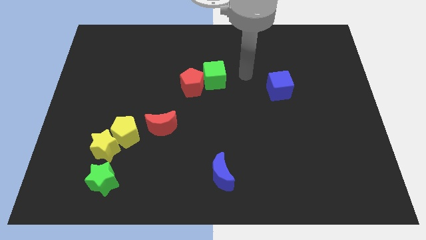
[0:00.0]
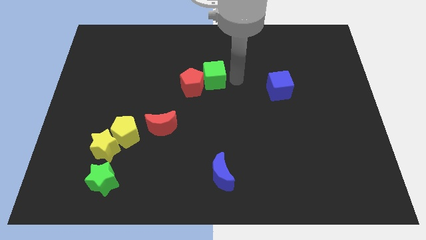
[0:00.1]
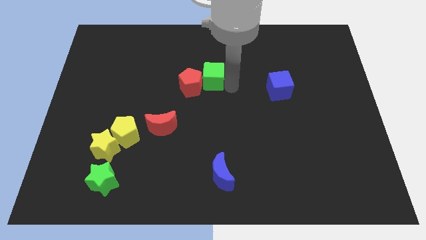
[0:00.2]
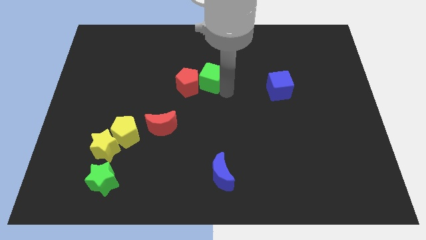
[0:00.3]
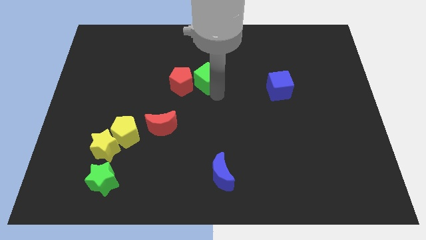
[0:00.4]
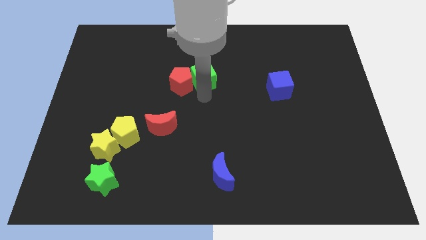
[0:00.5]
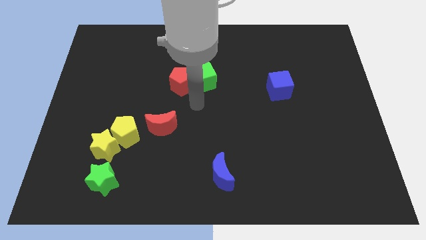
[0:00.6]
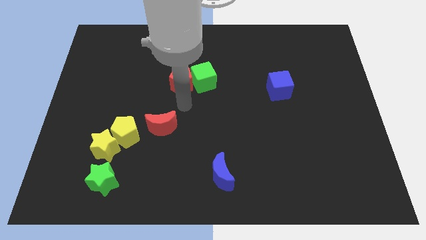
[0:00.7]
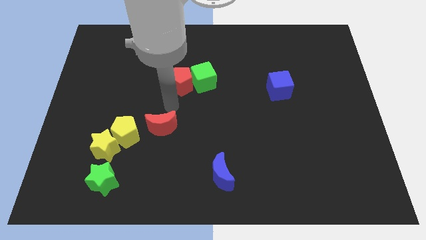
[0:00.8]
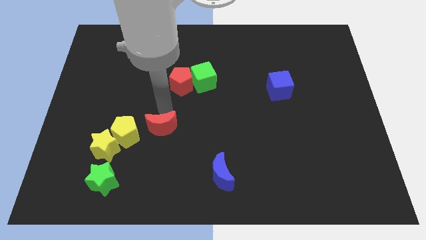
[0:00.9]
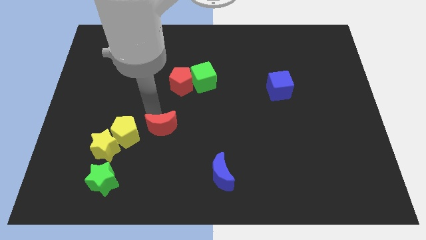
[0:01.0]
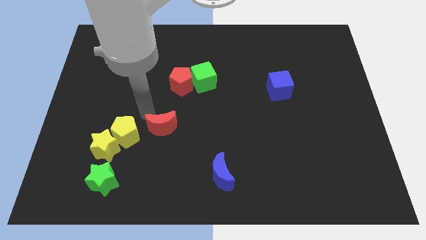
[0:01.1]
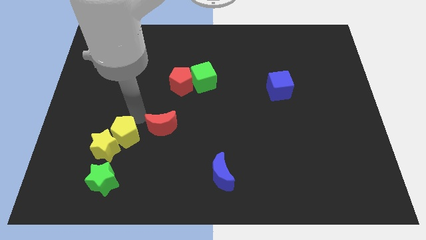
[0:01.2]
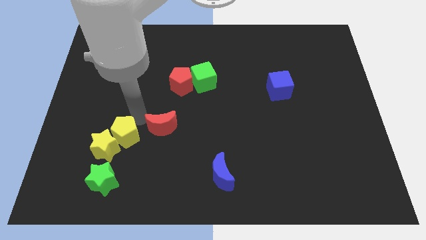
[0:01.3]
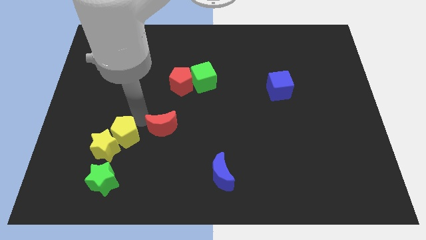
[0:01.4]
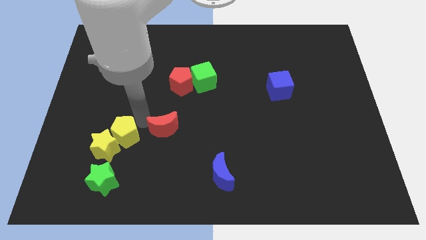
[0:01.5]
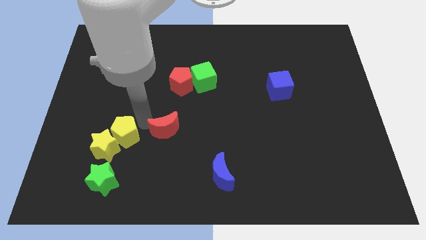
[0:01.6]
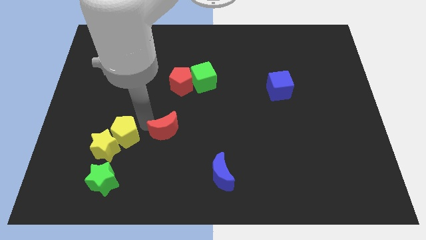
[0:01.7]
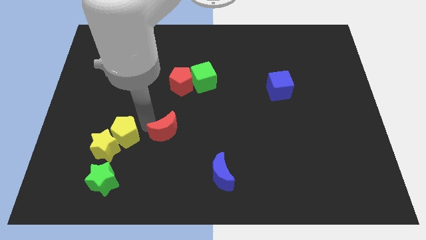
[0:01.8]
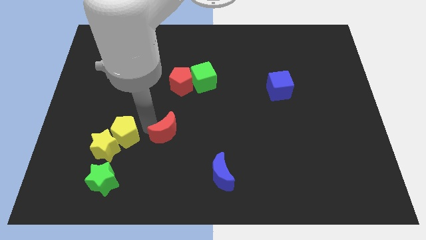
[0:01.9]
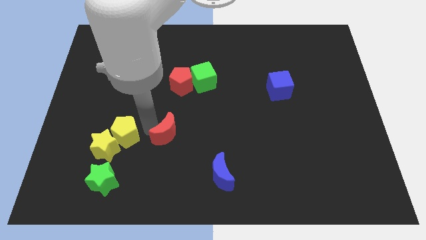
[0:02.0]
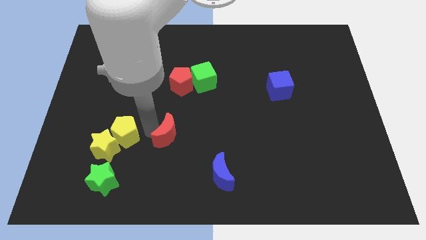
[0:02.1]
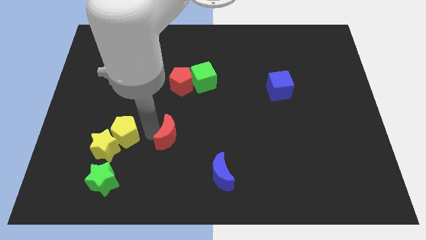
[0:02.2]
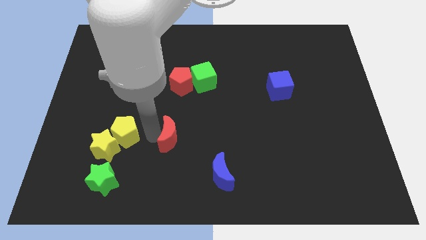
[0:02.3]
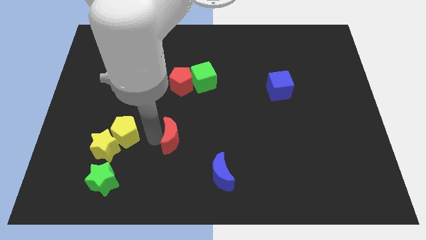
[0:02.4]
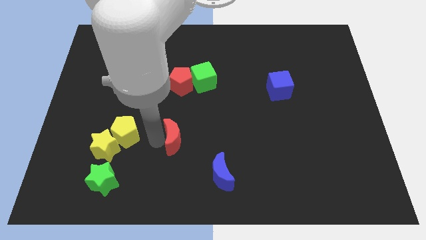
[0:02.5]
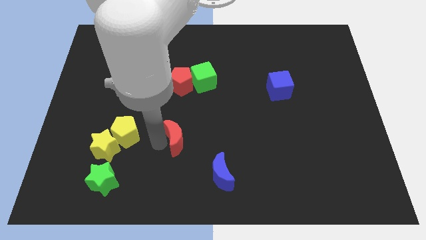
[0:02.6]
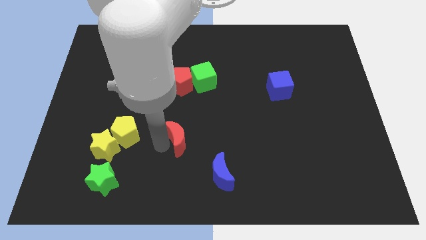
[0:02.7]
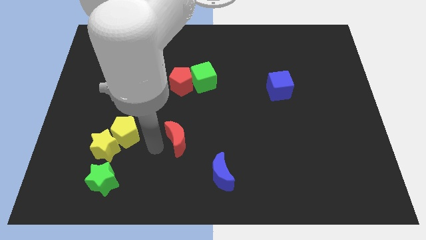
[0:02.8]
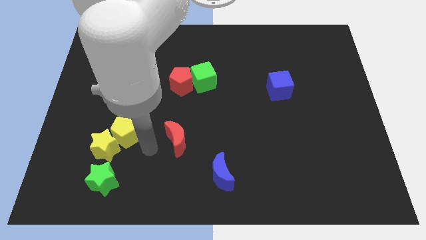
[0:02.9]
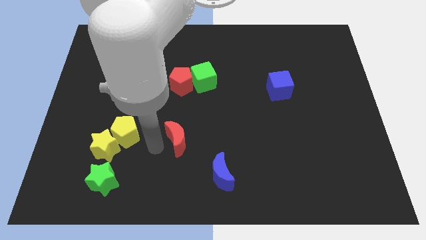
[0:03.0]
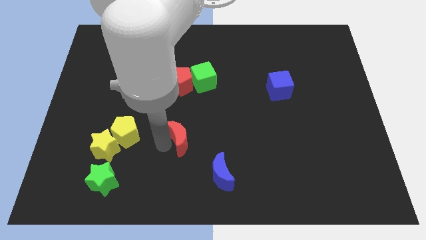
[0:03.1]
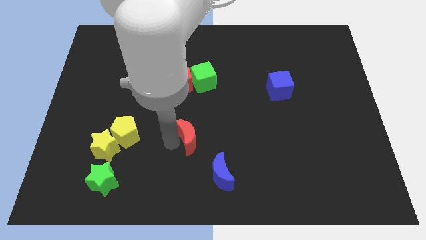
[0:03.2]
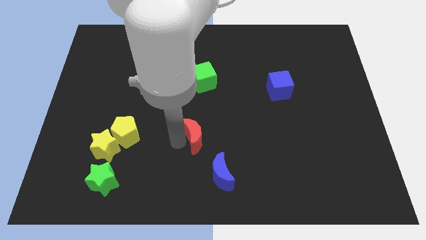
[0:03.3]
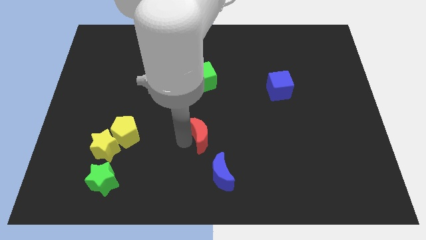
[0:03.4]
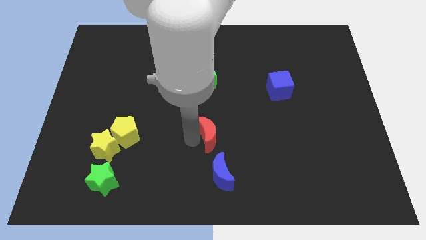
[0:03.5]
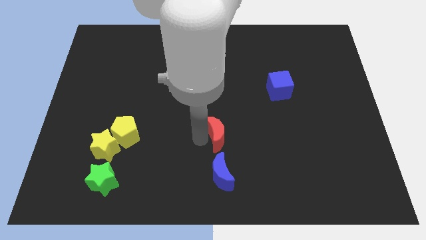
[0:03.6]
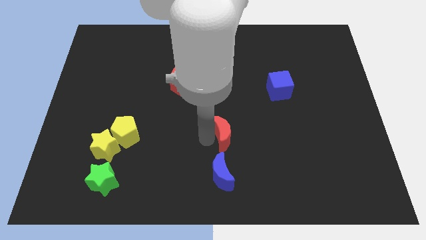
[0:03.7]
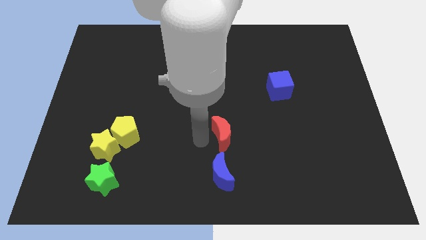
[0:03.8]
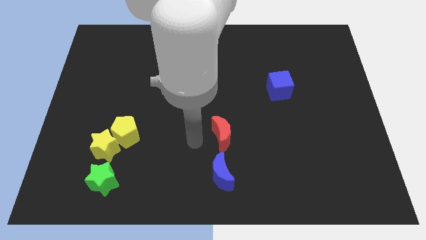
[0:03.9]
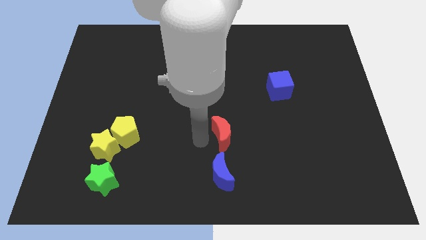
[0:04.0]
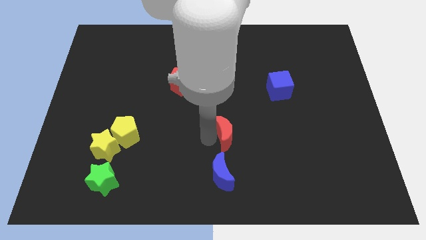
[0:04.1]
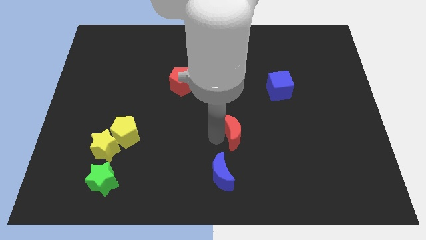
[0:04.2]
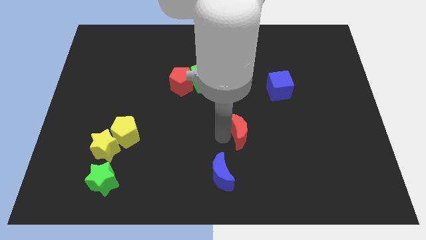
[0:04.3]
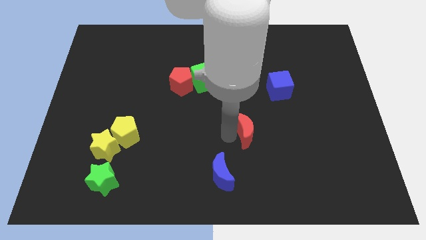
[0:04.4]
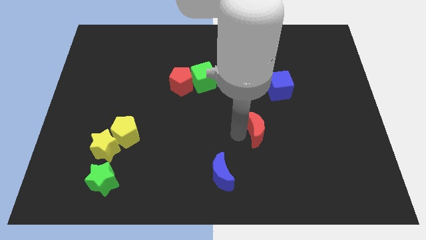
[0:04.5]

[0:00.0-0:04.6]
slide the red moon right

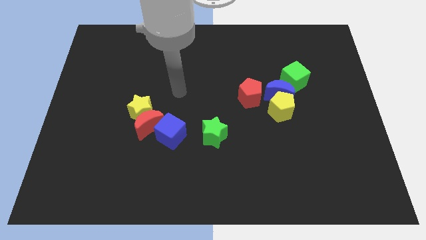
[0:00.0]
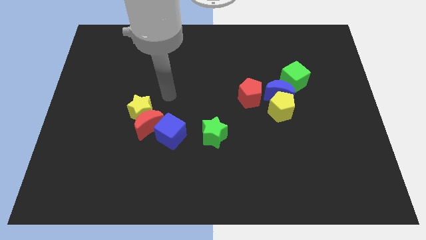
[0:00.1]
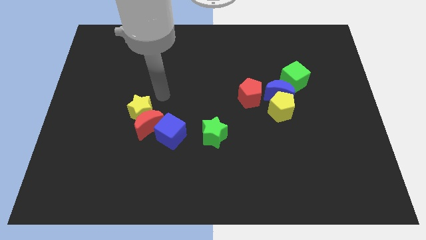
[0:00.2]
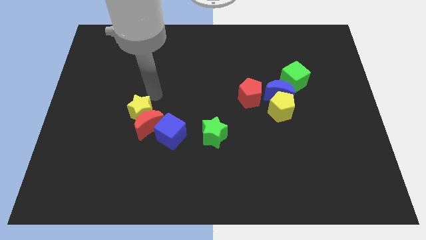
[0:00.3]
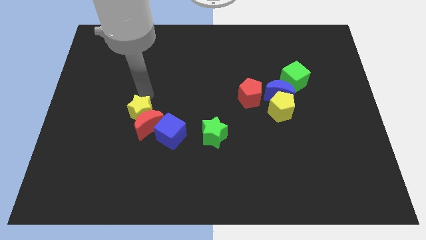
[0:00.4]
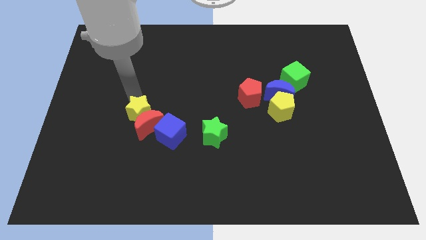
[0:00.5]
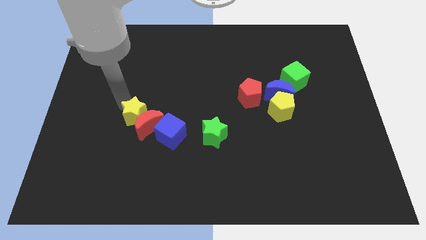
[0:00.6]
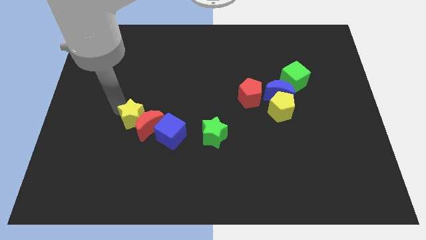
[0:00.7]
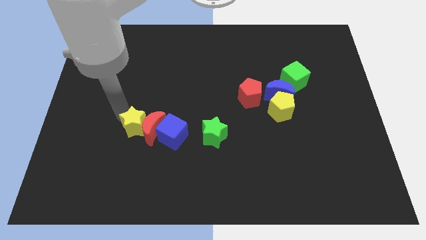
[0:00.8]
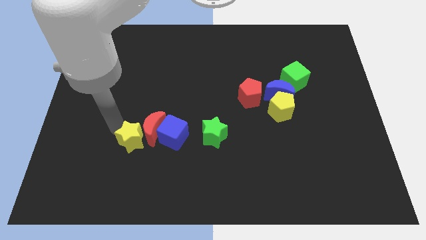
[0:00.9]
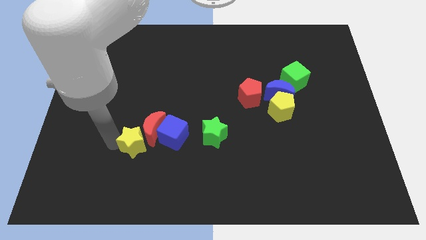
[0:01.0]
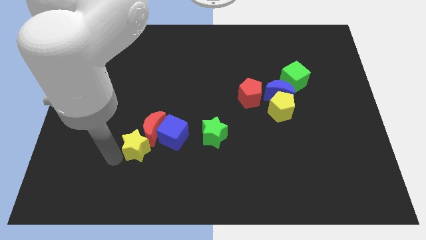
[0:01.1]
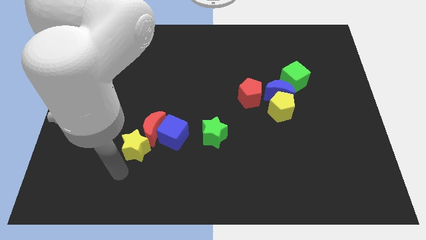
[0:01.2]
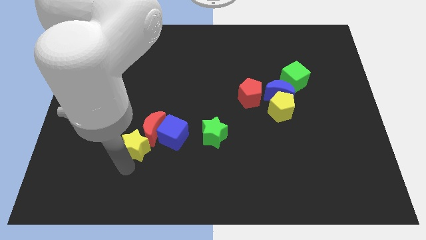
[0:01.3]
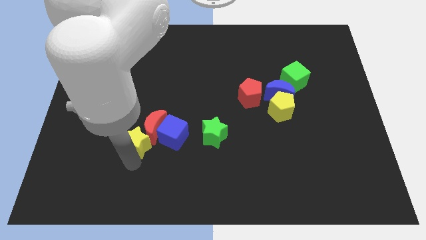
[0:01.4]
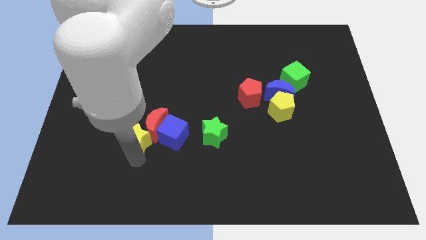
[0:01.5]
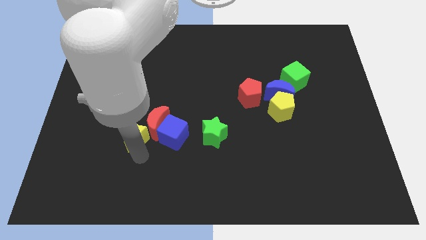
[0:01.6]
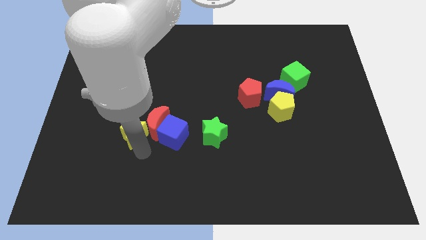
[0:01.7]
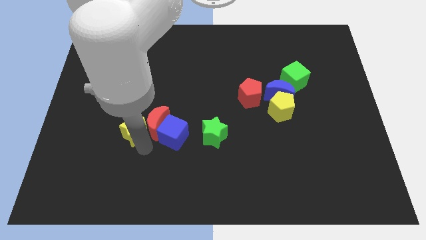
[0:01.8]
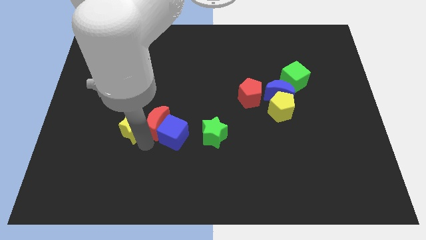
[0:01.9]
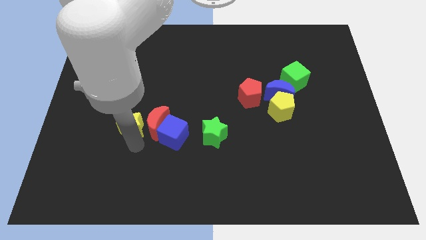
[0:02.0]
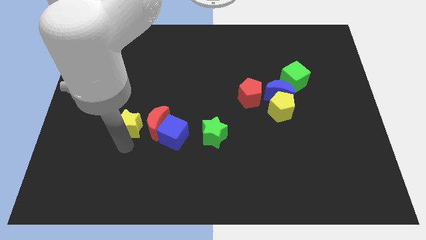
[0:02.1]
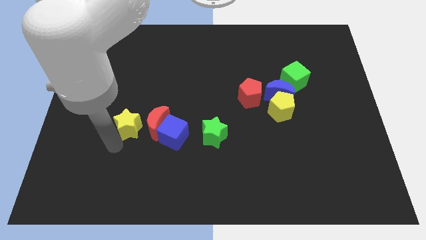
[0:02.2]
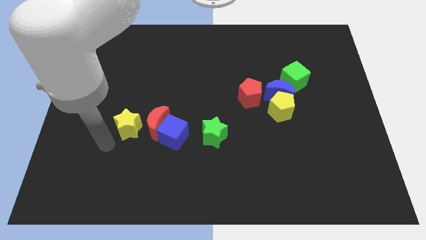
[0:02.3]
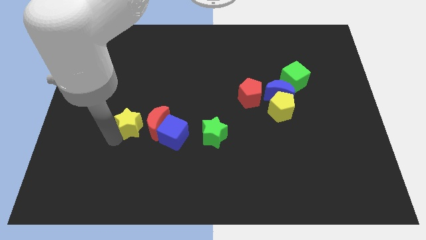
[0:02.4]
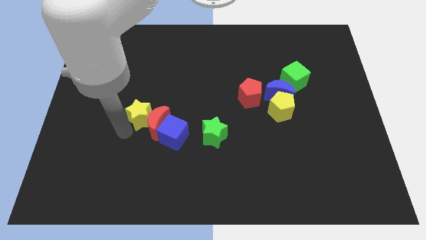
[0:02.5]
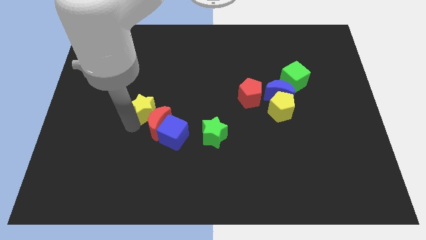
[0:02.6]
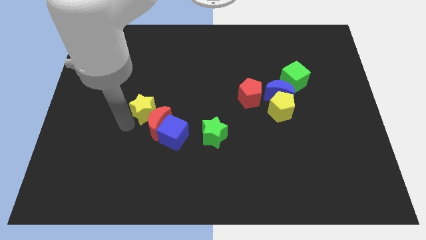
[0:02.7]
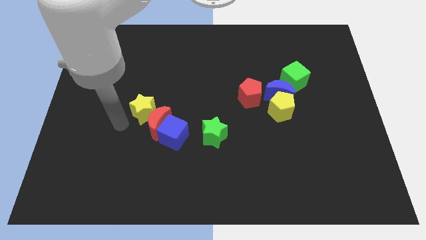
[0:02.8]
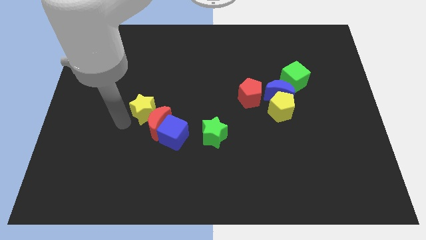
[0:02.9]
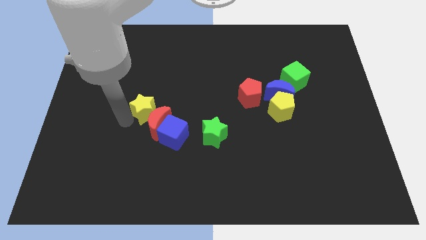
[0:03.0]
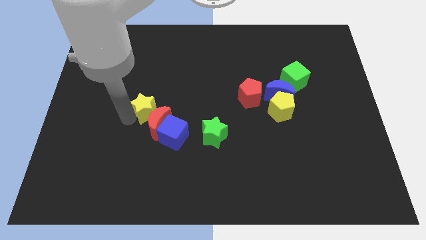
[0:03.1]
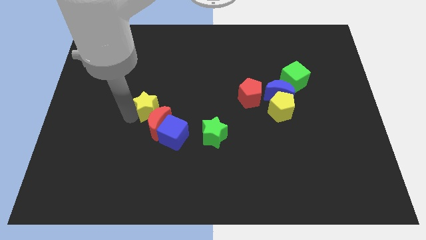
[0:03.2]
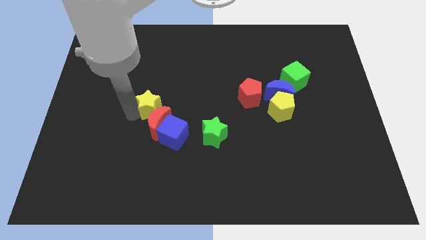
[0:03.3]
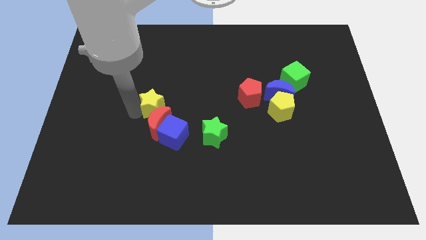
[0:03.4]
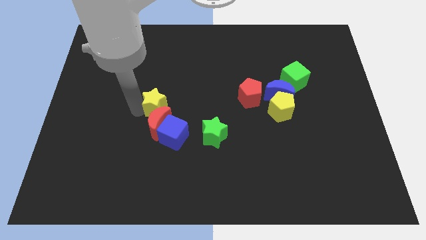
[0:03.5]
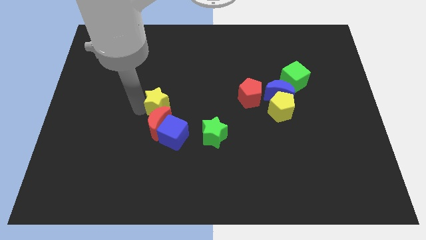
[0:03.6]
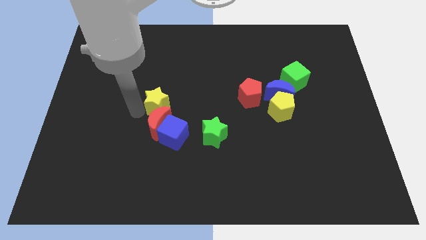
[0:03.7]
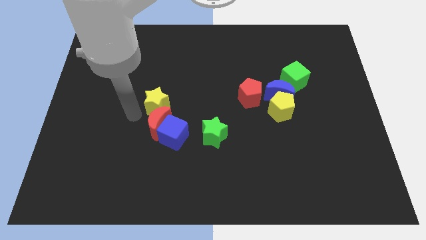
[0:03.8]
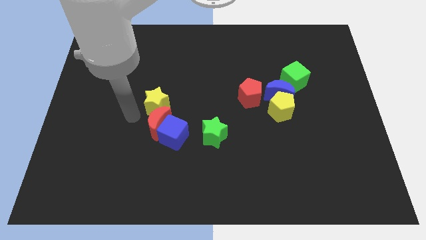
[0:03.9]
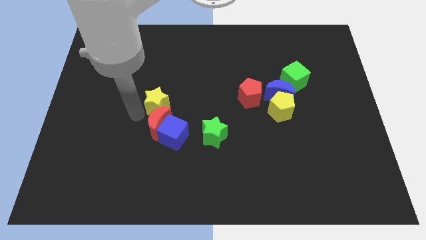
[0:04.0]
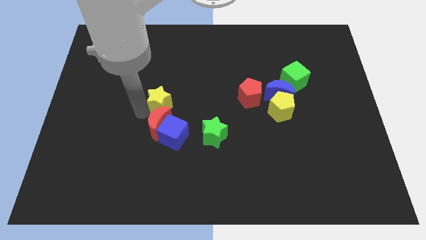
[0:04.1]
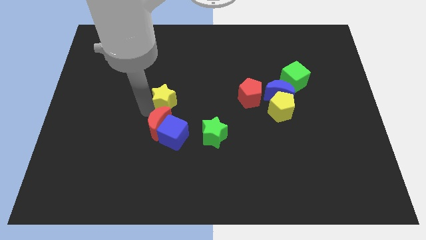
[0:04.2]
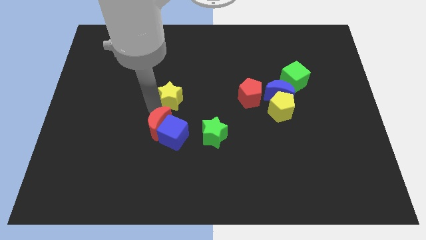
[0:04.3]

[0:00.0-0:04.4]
push the yellow star a little bit upwards and then to the right
